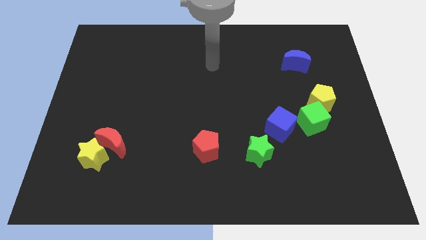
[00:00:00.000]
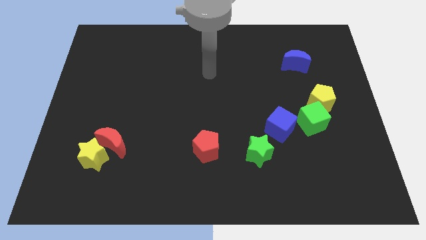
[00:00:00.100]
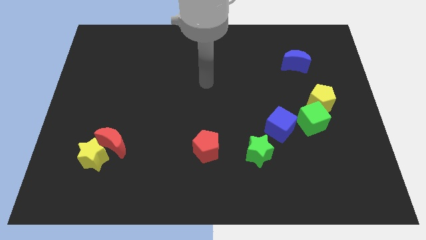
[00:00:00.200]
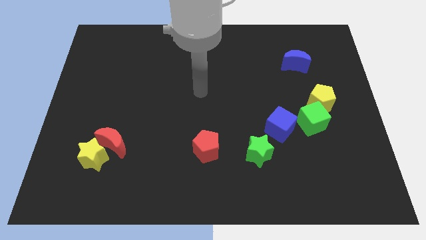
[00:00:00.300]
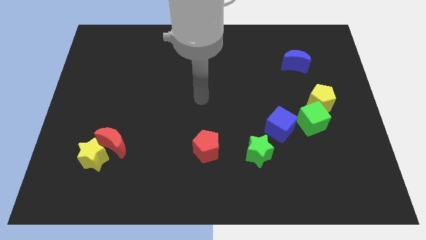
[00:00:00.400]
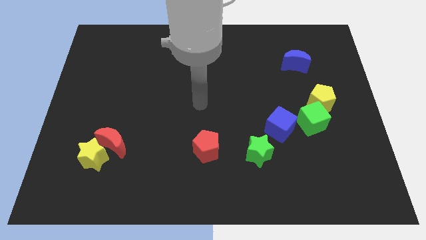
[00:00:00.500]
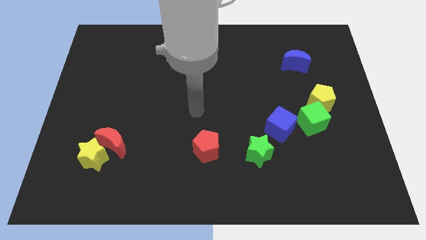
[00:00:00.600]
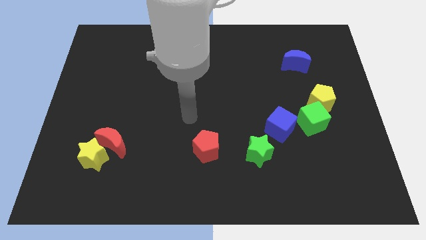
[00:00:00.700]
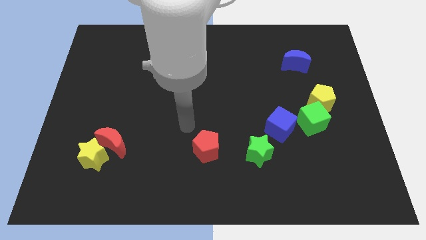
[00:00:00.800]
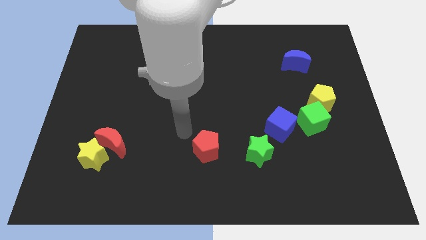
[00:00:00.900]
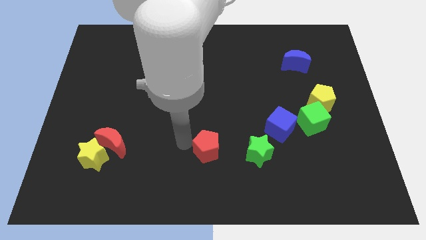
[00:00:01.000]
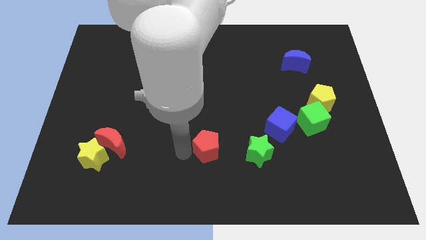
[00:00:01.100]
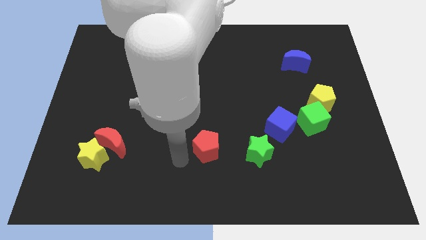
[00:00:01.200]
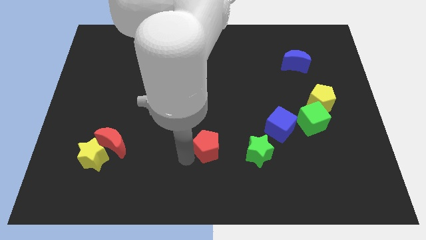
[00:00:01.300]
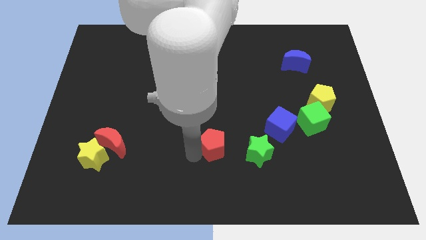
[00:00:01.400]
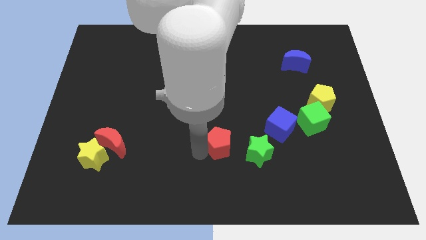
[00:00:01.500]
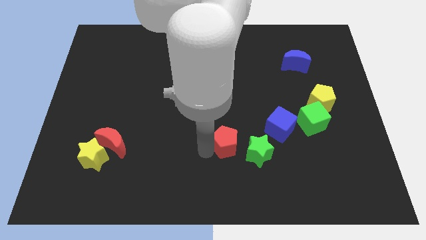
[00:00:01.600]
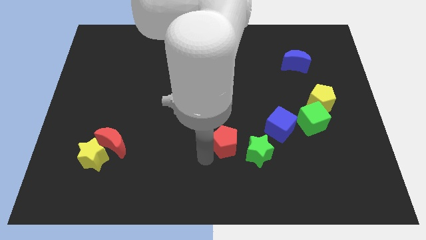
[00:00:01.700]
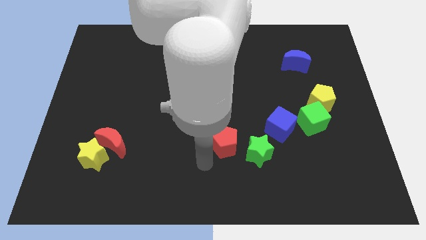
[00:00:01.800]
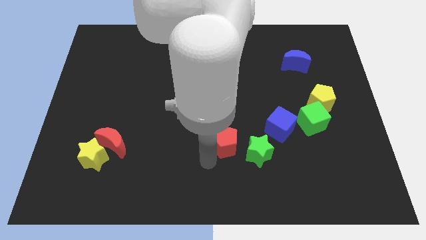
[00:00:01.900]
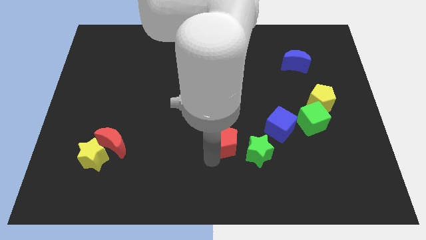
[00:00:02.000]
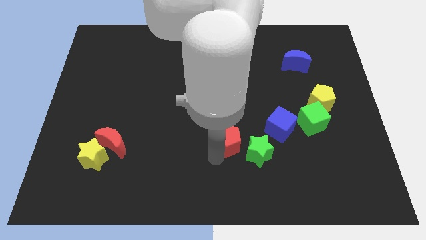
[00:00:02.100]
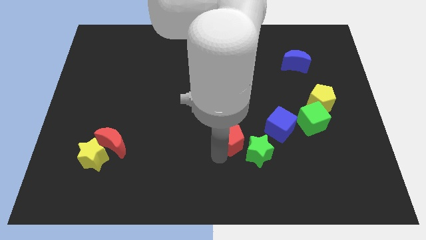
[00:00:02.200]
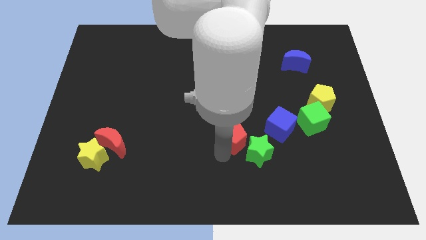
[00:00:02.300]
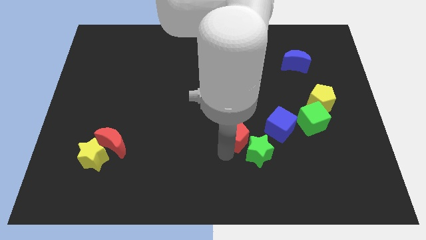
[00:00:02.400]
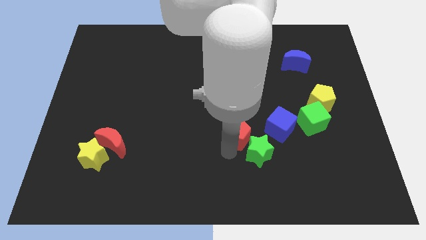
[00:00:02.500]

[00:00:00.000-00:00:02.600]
push the red pentagon upwards and to the right diagonally slightly

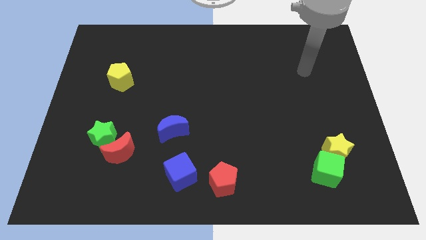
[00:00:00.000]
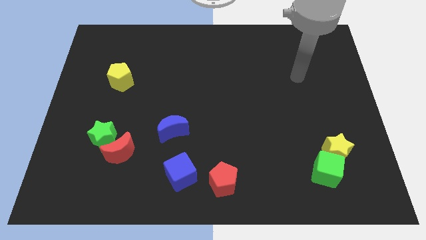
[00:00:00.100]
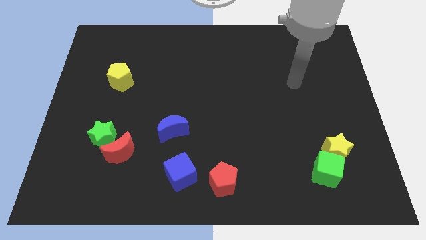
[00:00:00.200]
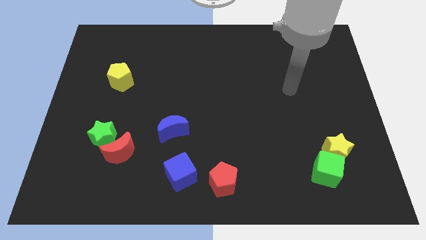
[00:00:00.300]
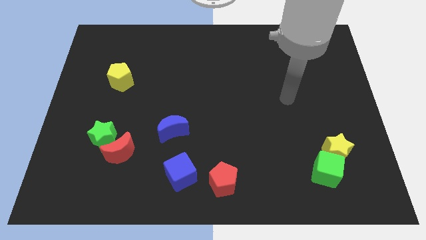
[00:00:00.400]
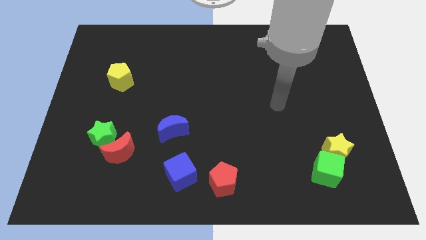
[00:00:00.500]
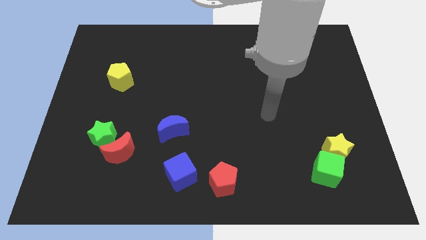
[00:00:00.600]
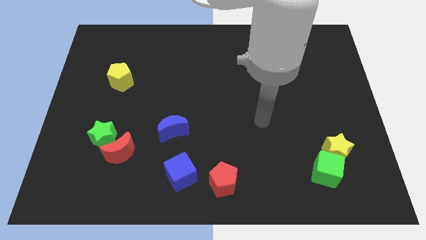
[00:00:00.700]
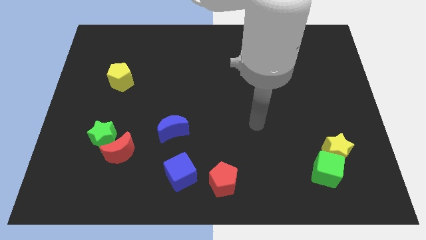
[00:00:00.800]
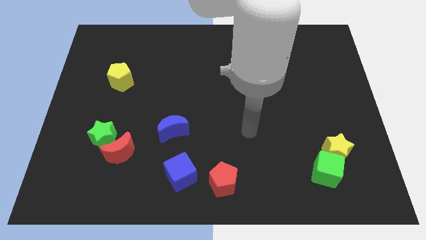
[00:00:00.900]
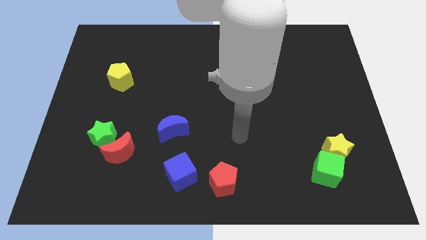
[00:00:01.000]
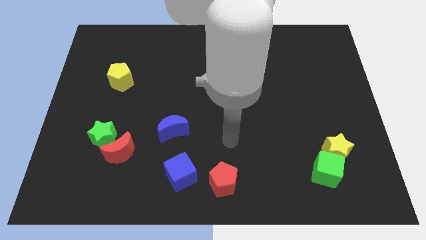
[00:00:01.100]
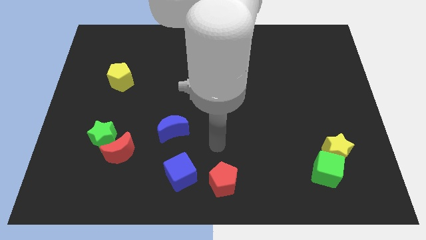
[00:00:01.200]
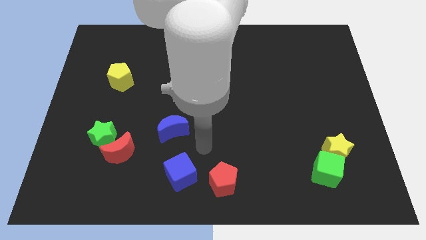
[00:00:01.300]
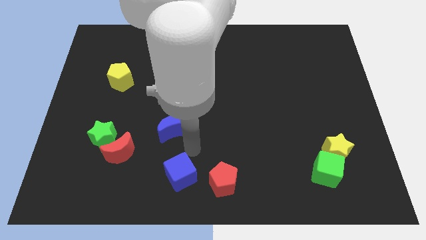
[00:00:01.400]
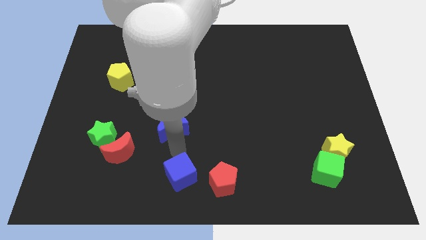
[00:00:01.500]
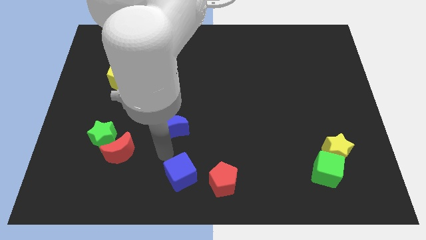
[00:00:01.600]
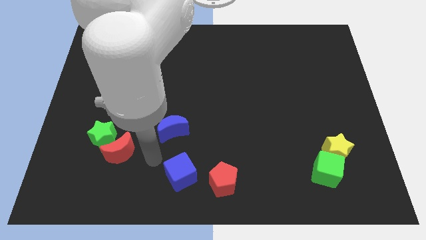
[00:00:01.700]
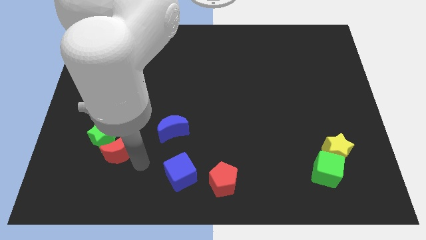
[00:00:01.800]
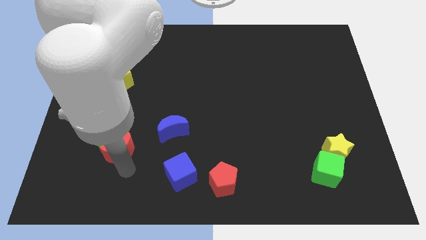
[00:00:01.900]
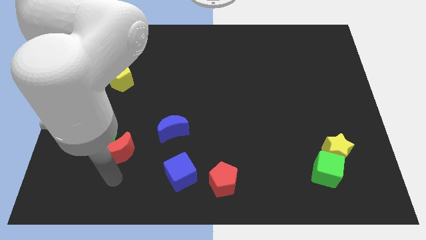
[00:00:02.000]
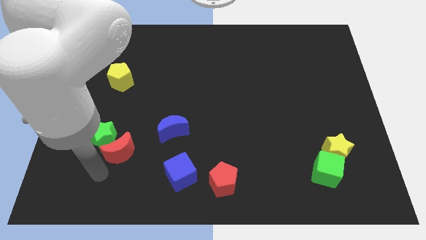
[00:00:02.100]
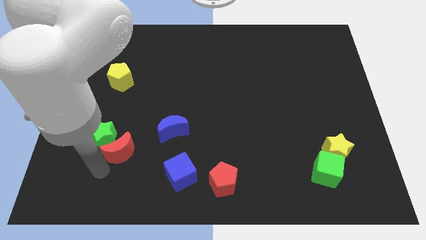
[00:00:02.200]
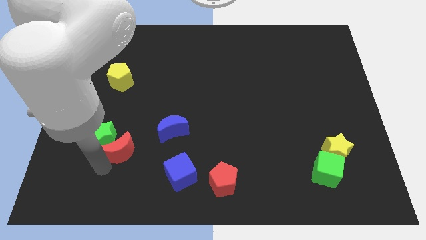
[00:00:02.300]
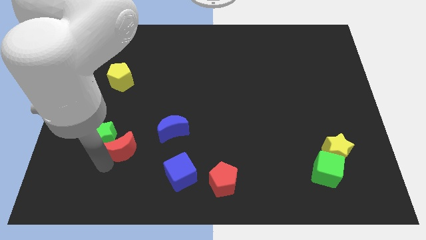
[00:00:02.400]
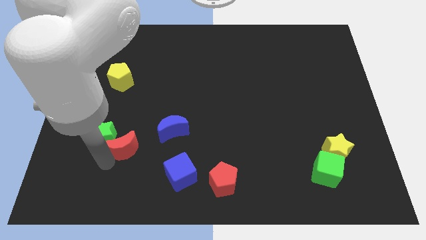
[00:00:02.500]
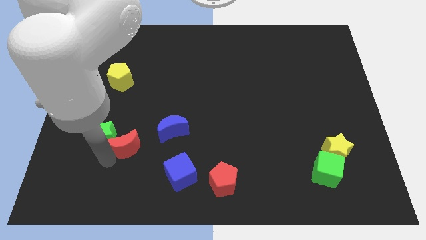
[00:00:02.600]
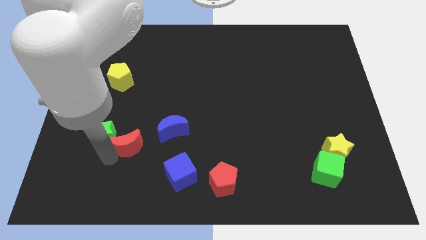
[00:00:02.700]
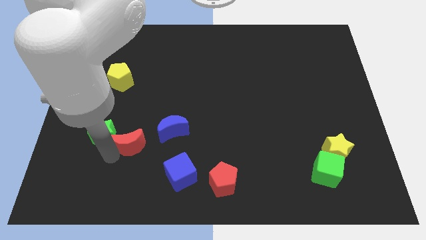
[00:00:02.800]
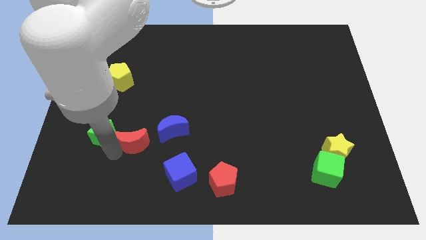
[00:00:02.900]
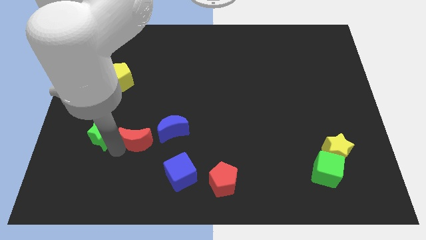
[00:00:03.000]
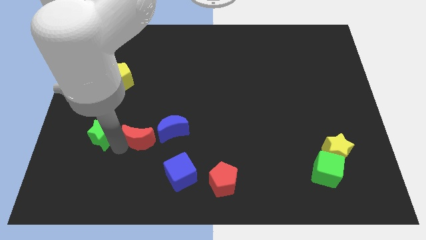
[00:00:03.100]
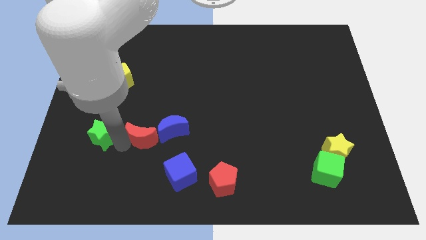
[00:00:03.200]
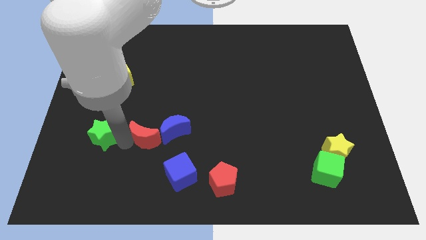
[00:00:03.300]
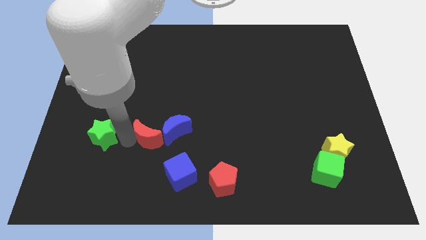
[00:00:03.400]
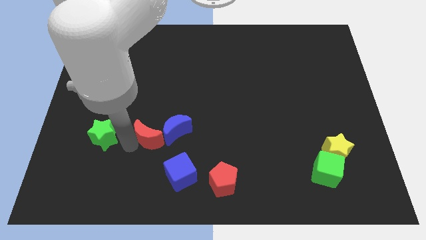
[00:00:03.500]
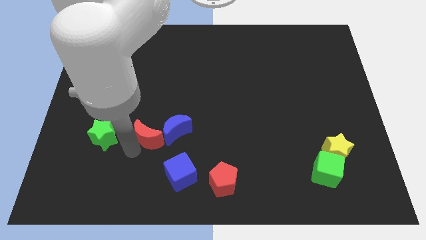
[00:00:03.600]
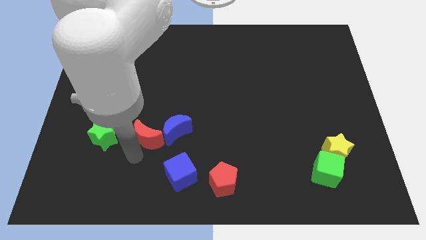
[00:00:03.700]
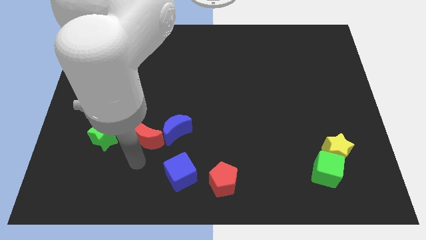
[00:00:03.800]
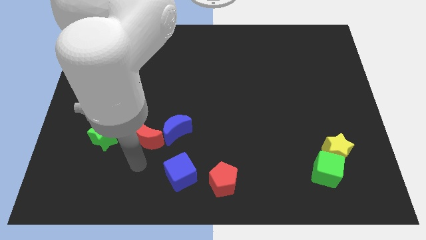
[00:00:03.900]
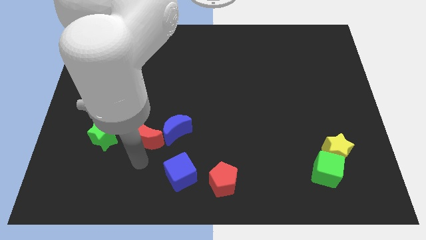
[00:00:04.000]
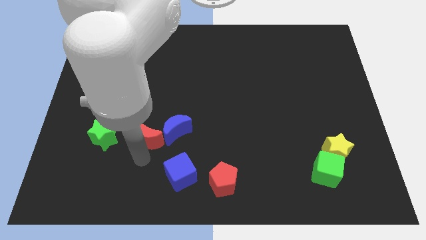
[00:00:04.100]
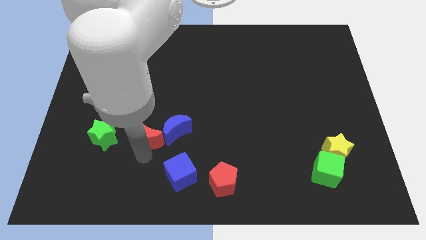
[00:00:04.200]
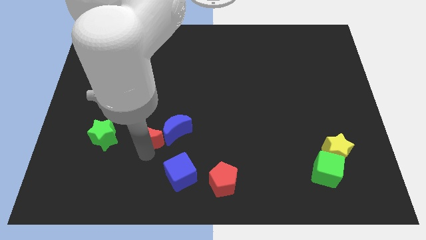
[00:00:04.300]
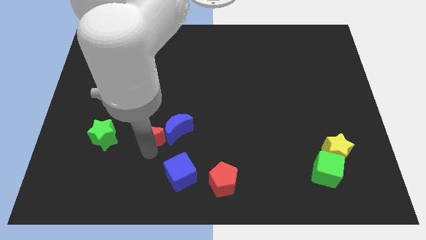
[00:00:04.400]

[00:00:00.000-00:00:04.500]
slightly move the red moon upwards and right diagonally
